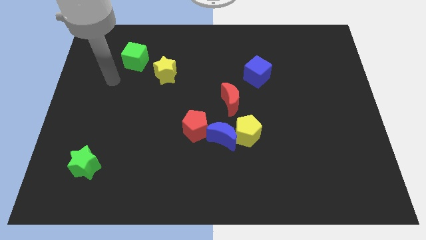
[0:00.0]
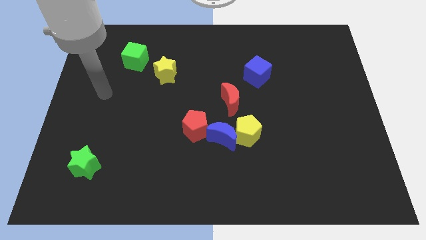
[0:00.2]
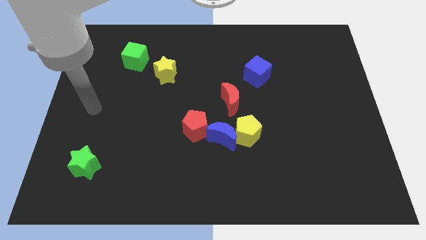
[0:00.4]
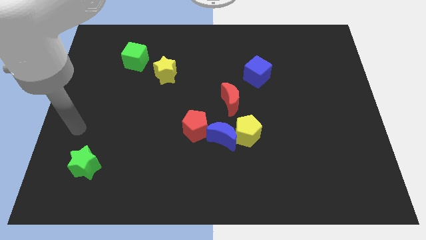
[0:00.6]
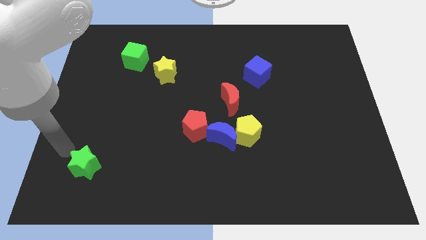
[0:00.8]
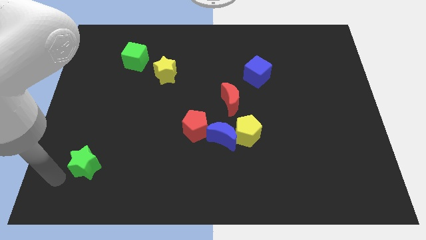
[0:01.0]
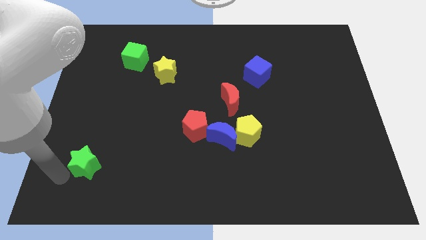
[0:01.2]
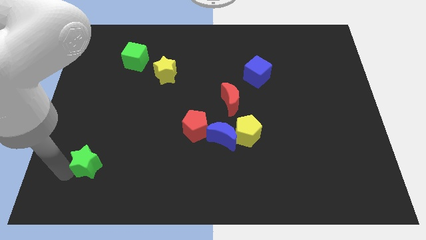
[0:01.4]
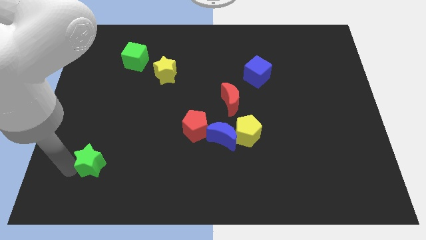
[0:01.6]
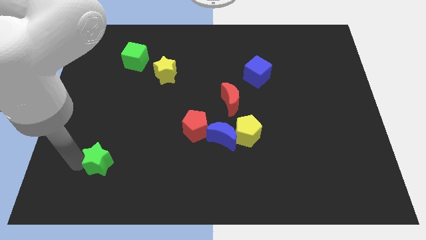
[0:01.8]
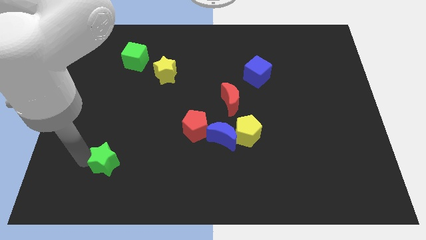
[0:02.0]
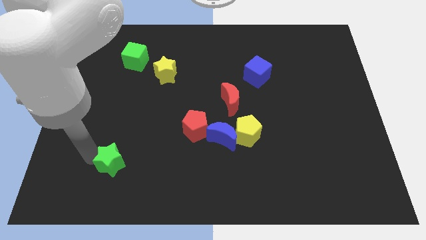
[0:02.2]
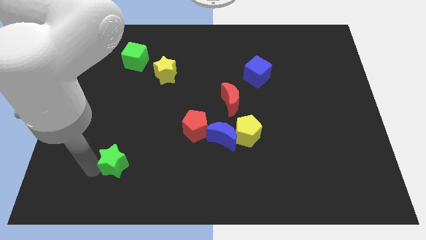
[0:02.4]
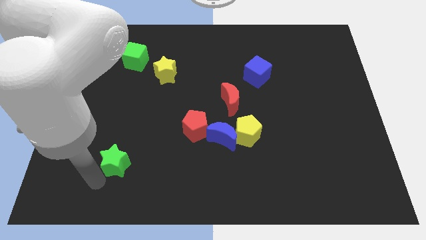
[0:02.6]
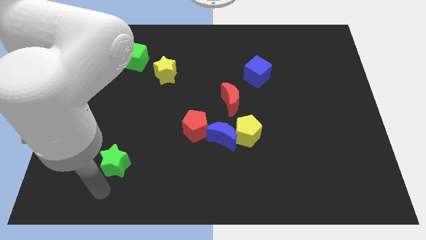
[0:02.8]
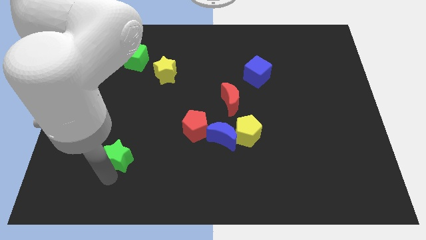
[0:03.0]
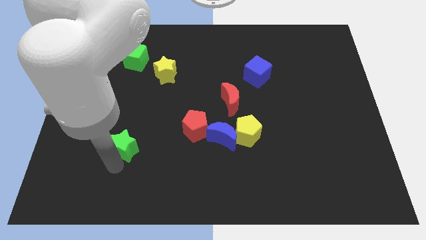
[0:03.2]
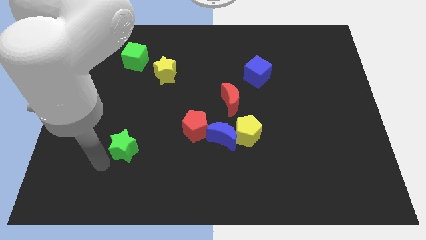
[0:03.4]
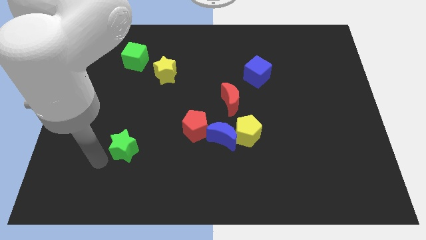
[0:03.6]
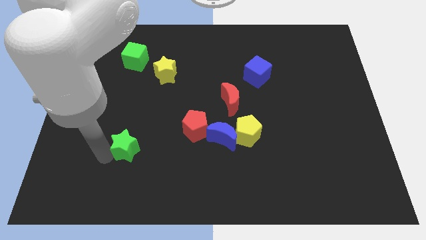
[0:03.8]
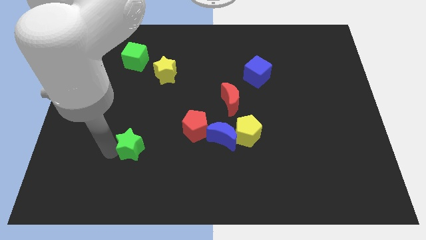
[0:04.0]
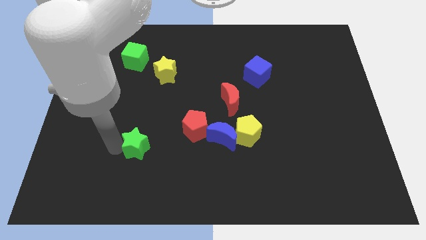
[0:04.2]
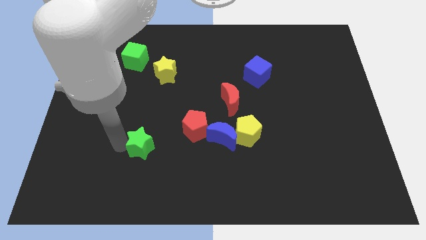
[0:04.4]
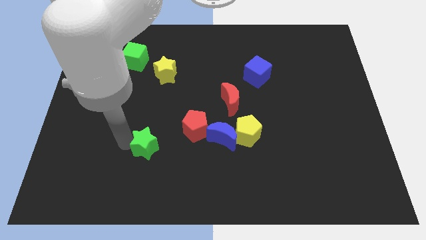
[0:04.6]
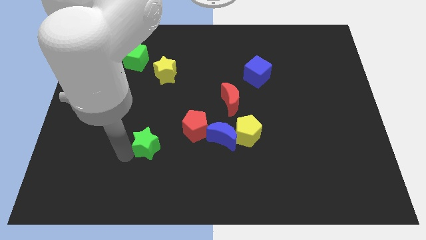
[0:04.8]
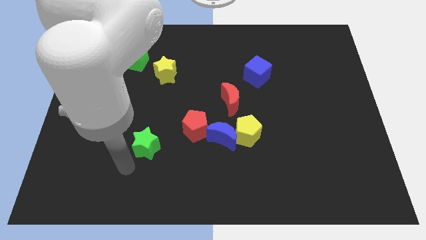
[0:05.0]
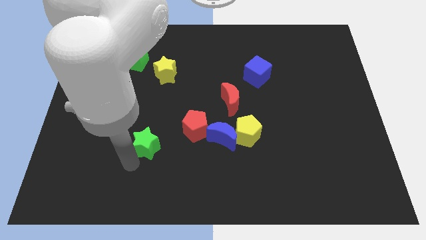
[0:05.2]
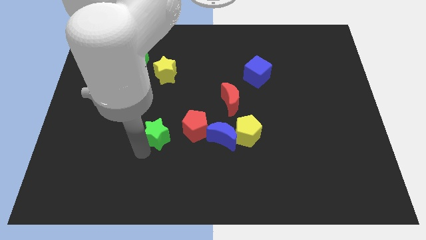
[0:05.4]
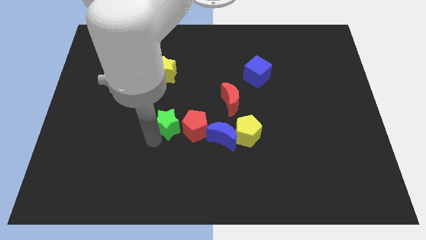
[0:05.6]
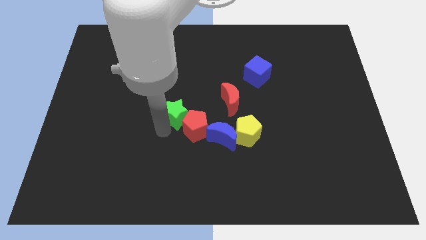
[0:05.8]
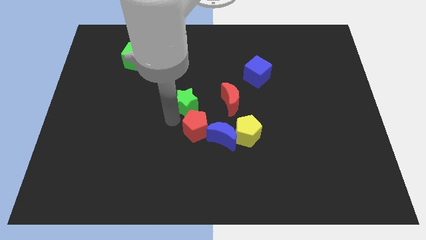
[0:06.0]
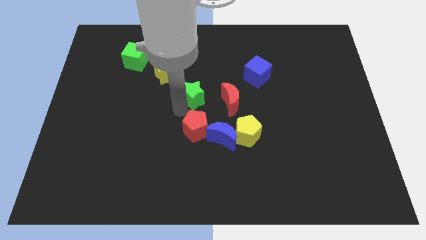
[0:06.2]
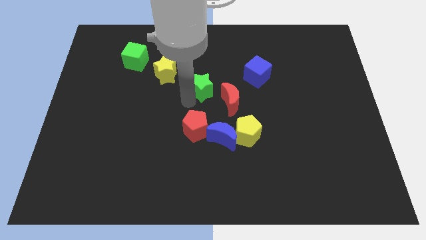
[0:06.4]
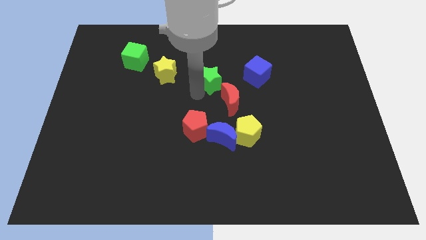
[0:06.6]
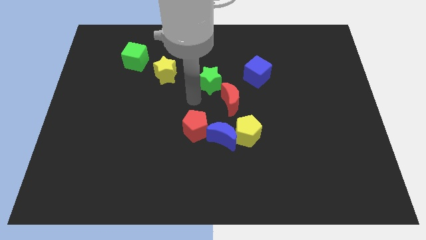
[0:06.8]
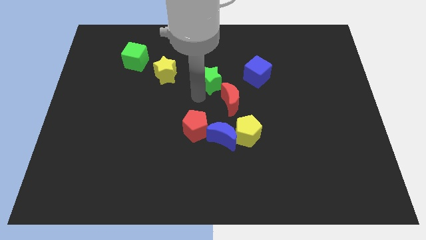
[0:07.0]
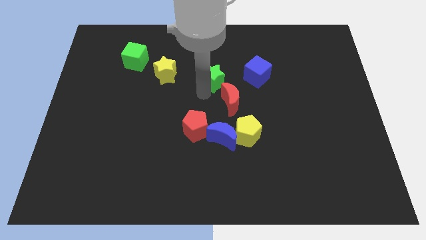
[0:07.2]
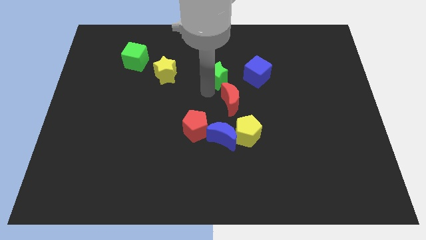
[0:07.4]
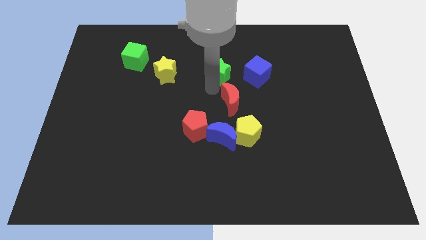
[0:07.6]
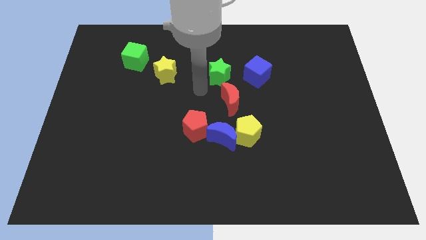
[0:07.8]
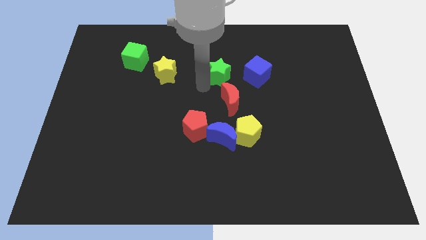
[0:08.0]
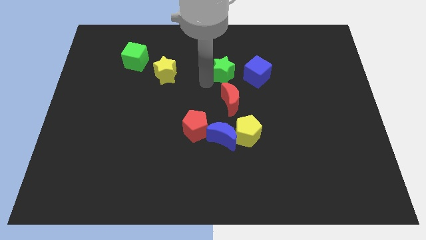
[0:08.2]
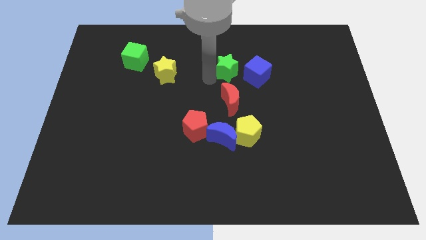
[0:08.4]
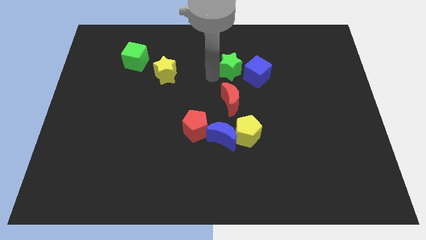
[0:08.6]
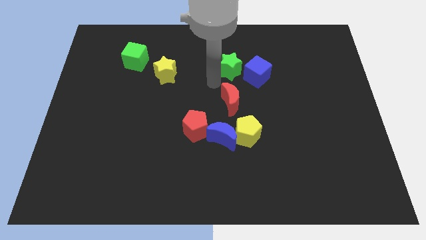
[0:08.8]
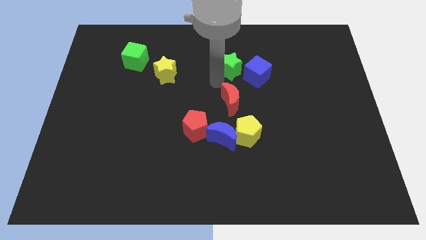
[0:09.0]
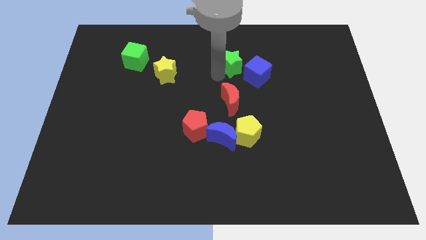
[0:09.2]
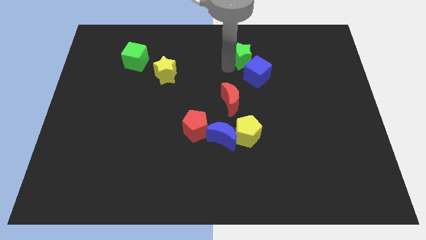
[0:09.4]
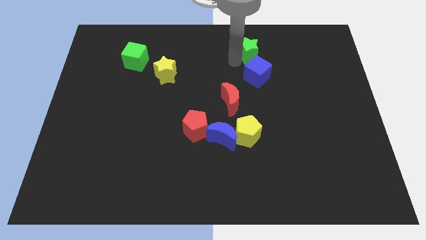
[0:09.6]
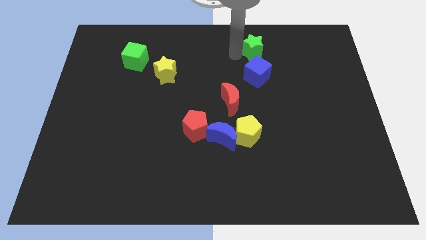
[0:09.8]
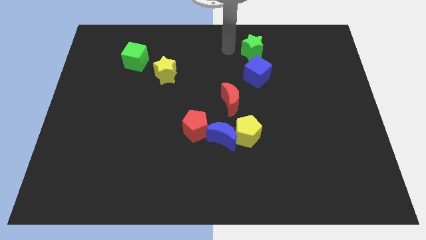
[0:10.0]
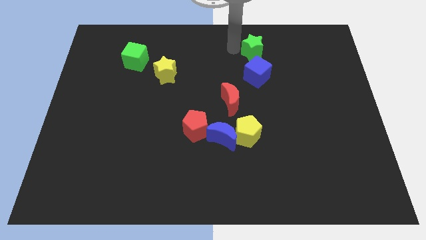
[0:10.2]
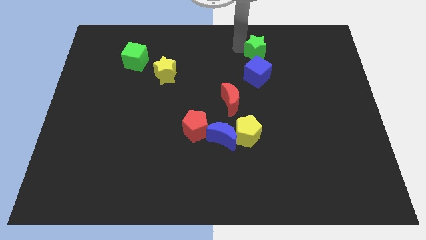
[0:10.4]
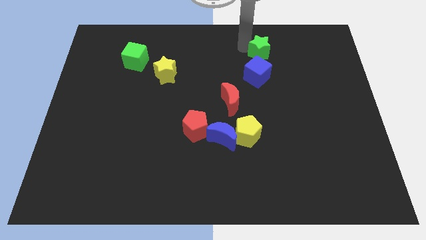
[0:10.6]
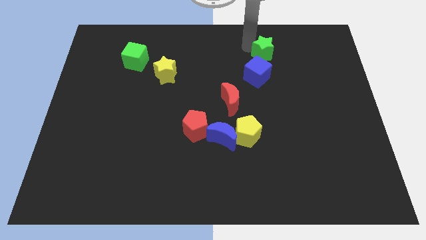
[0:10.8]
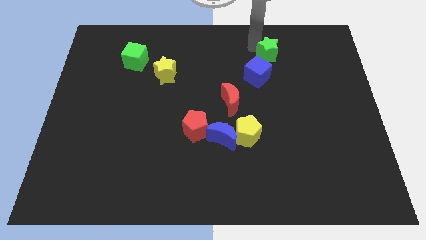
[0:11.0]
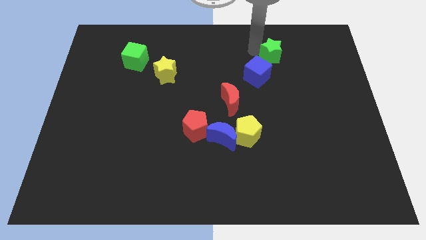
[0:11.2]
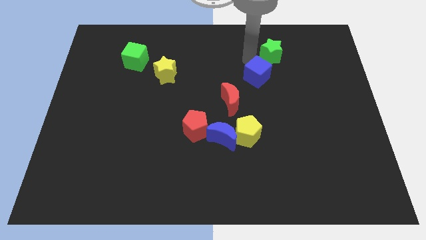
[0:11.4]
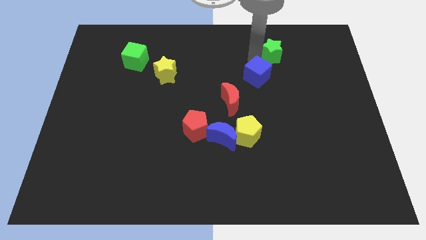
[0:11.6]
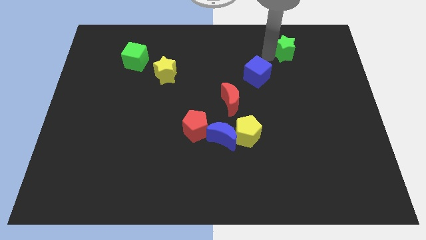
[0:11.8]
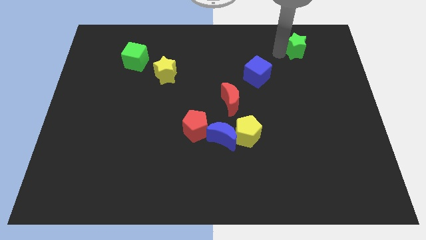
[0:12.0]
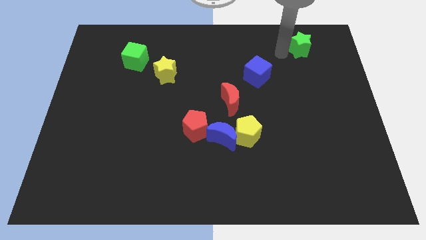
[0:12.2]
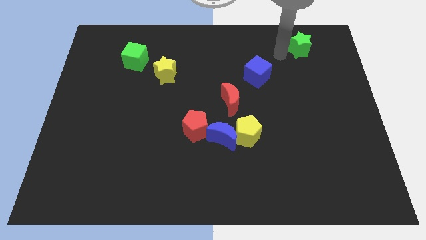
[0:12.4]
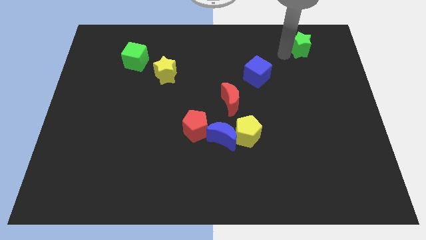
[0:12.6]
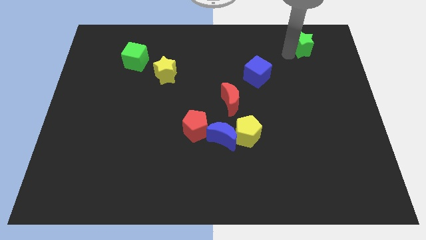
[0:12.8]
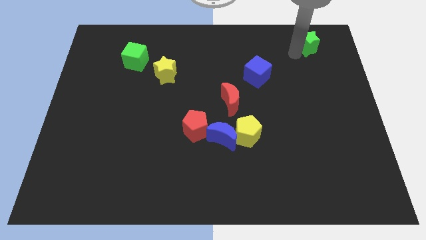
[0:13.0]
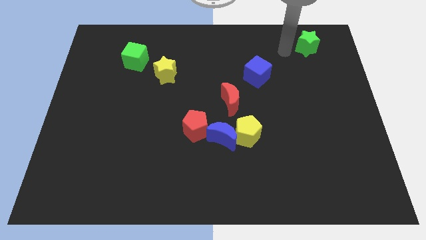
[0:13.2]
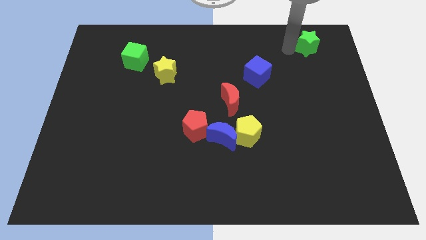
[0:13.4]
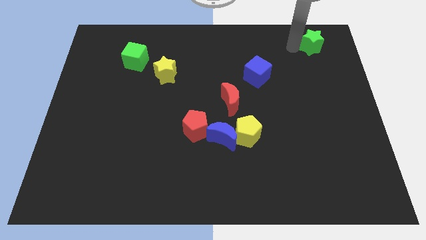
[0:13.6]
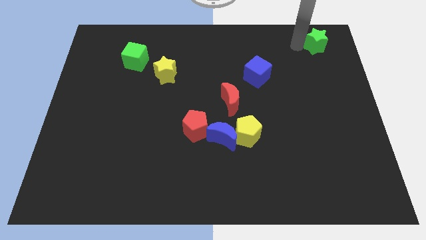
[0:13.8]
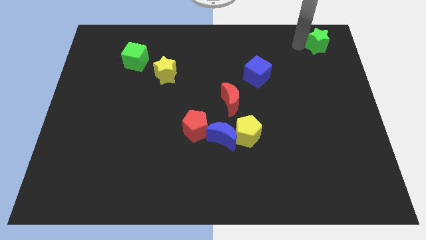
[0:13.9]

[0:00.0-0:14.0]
slide the green star to the upper right corner
